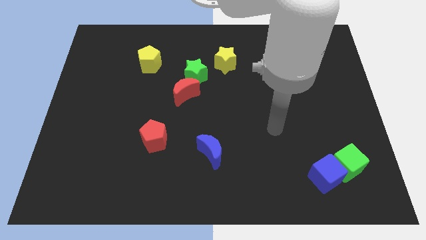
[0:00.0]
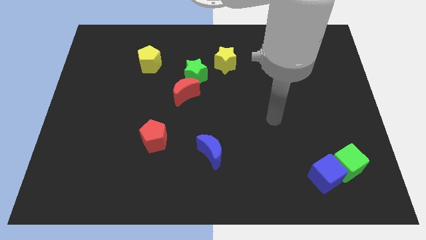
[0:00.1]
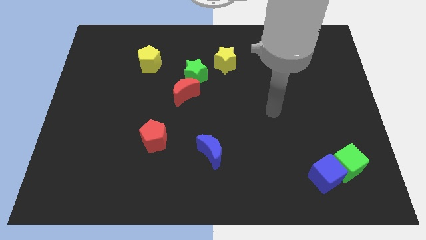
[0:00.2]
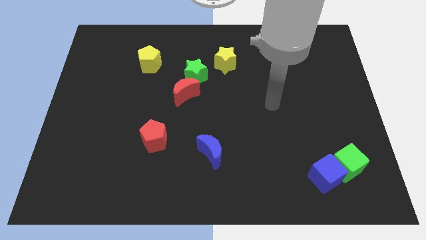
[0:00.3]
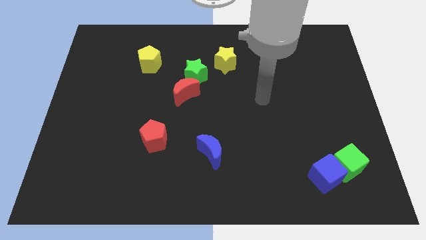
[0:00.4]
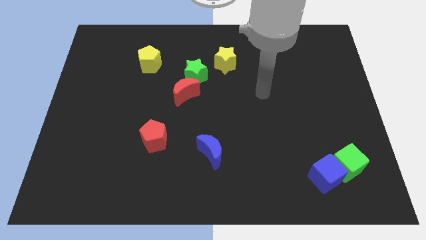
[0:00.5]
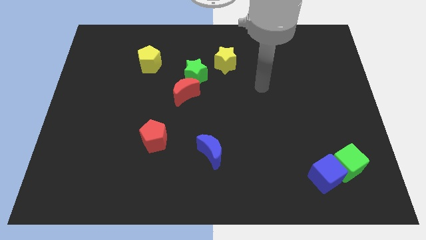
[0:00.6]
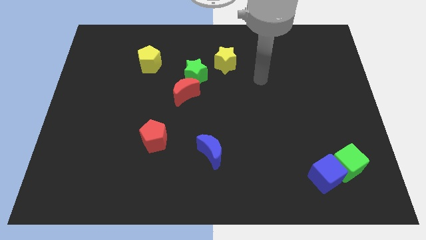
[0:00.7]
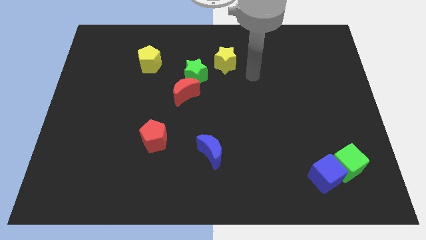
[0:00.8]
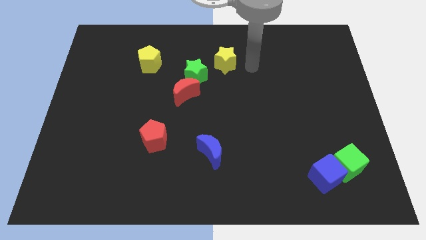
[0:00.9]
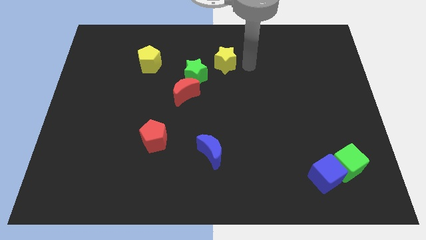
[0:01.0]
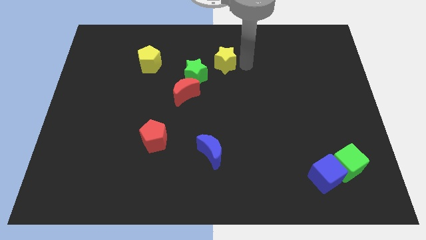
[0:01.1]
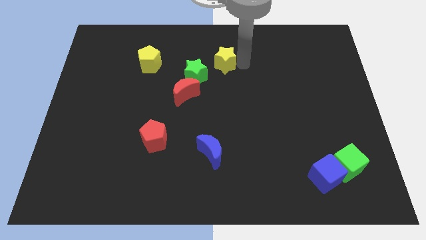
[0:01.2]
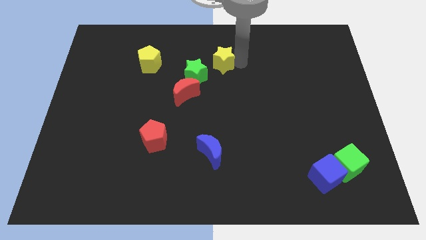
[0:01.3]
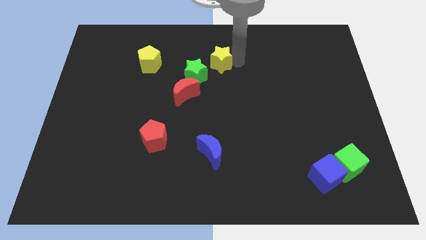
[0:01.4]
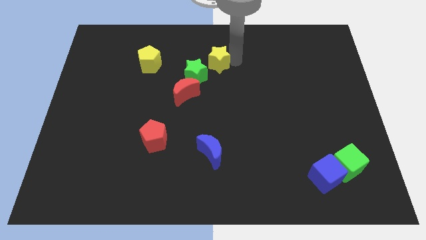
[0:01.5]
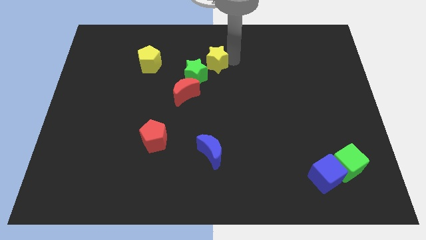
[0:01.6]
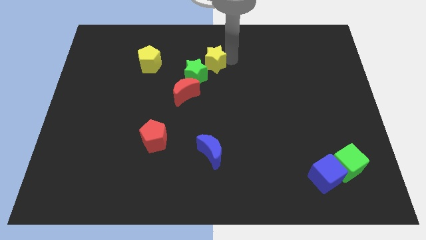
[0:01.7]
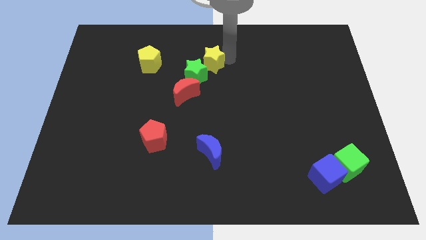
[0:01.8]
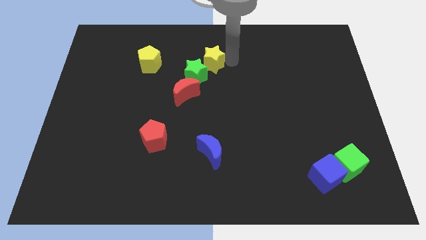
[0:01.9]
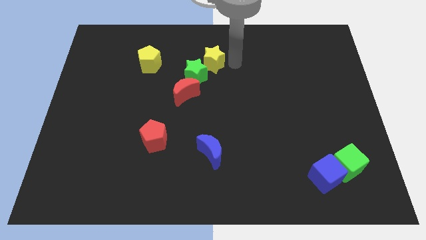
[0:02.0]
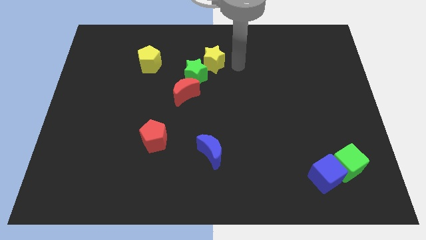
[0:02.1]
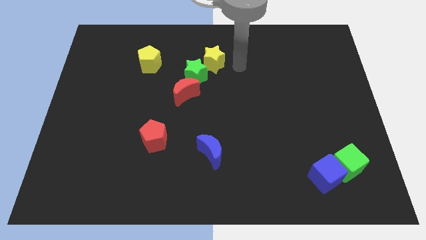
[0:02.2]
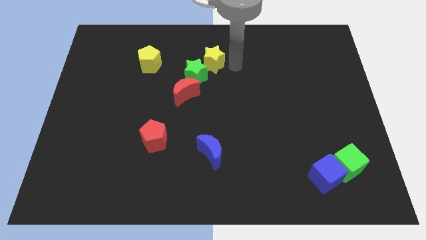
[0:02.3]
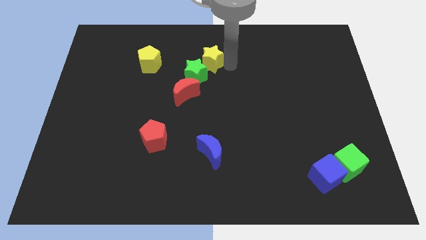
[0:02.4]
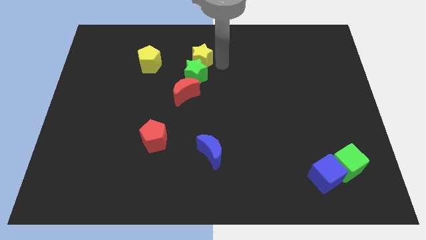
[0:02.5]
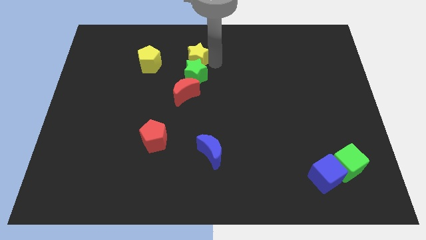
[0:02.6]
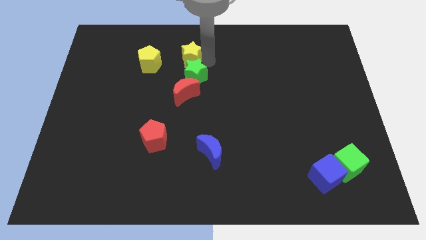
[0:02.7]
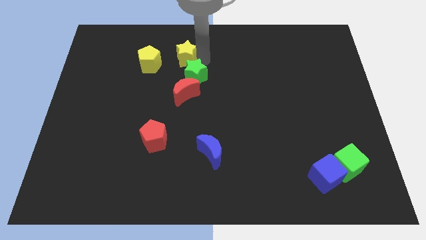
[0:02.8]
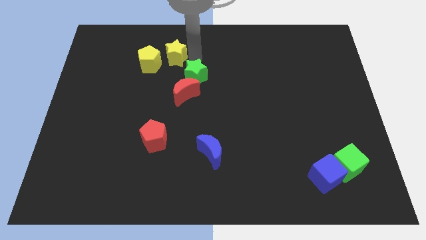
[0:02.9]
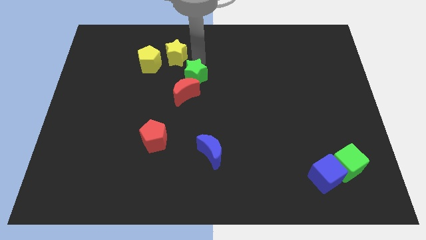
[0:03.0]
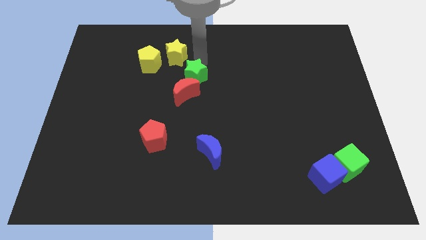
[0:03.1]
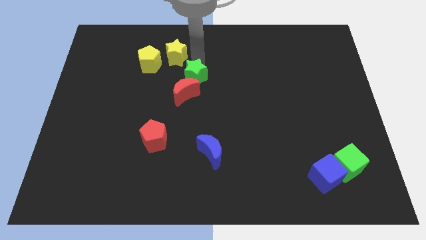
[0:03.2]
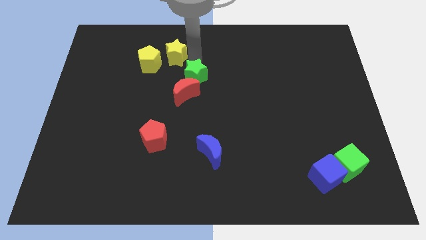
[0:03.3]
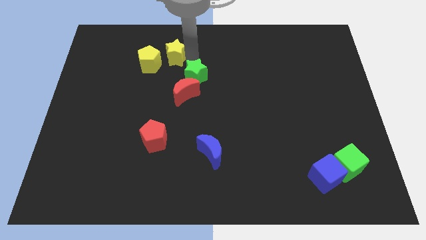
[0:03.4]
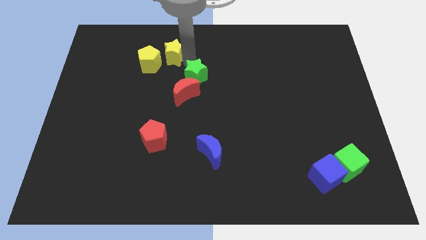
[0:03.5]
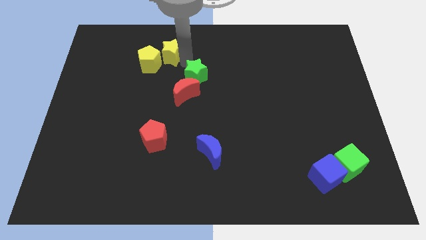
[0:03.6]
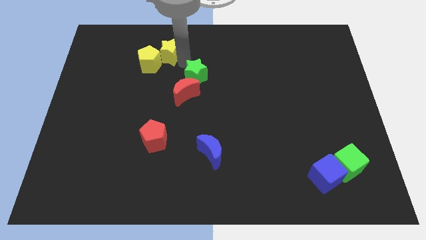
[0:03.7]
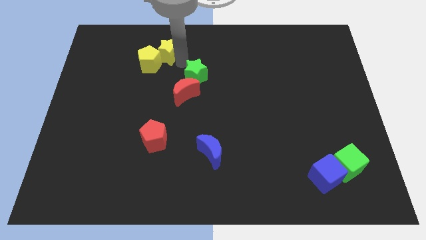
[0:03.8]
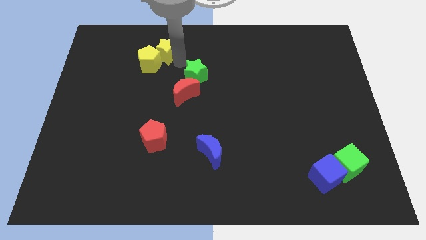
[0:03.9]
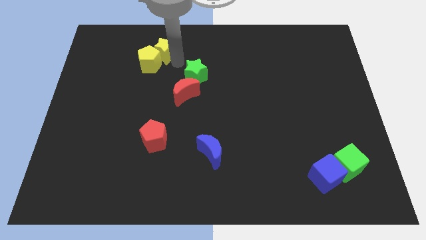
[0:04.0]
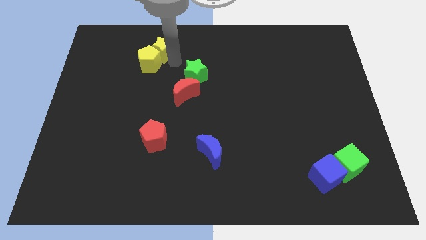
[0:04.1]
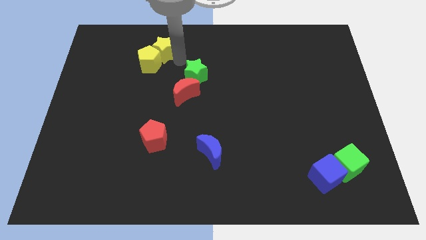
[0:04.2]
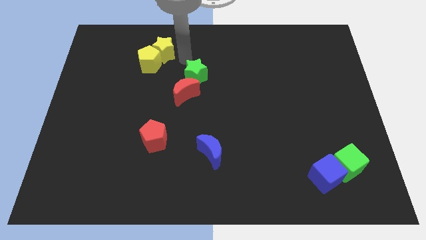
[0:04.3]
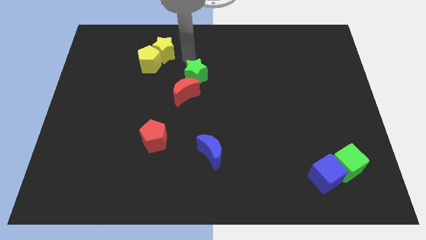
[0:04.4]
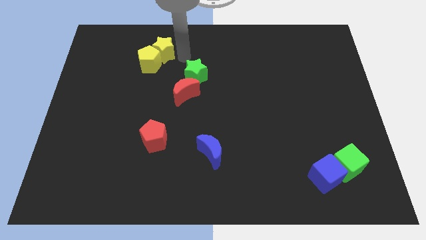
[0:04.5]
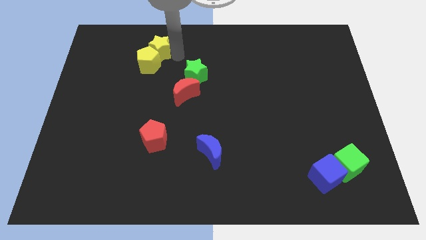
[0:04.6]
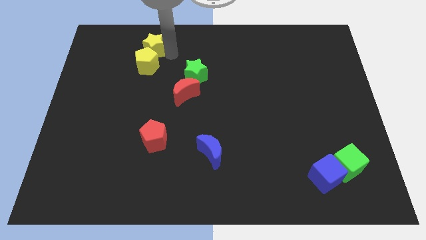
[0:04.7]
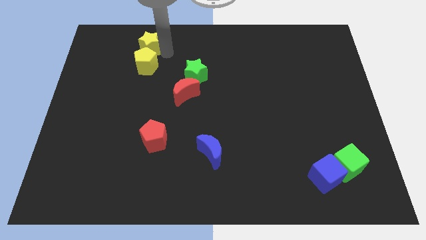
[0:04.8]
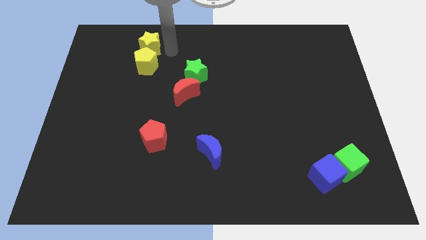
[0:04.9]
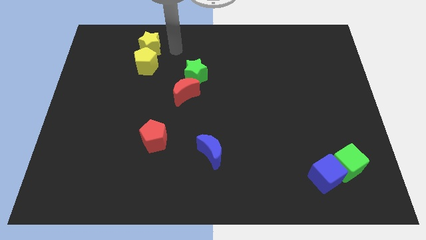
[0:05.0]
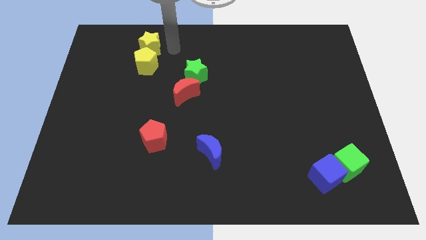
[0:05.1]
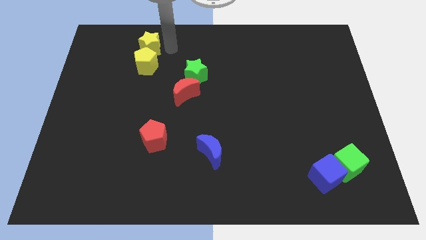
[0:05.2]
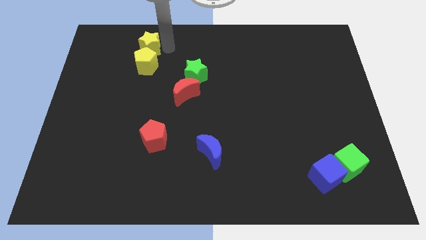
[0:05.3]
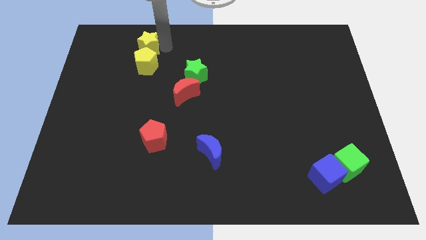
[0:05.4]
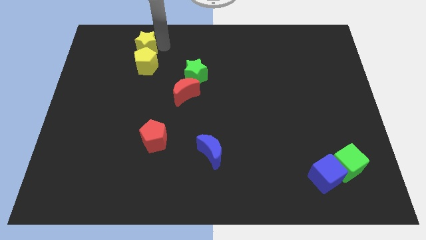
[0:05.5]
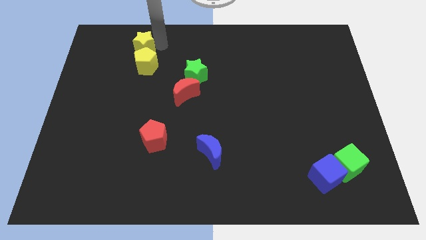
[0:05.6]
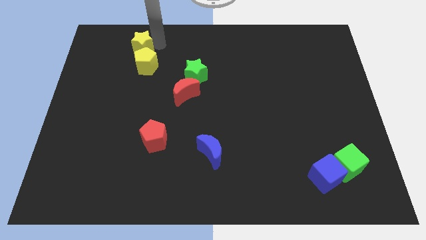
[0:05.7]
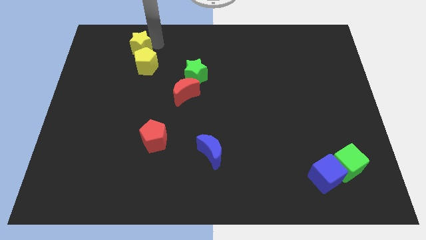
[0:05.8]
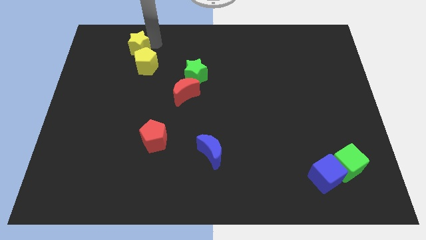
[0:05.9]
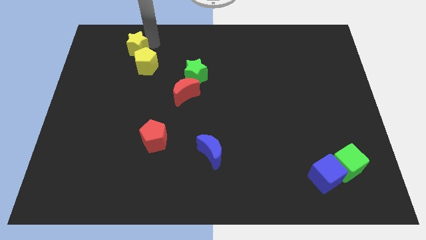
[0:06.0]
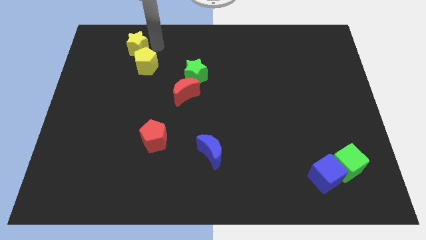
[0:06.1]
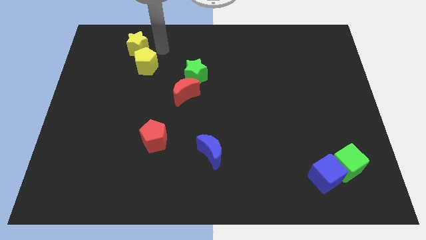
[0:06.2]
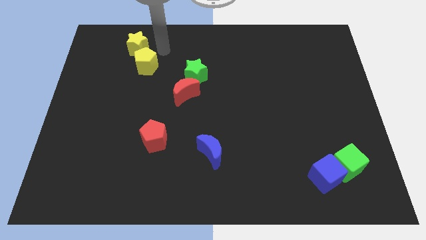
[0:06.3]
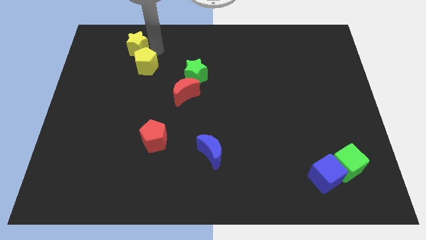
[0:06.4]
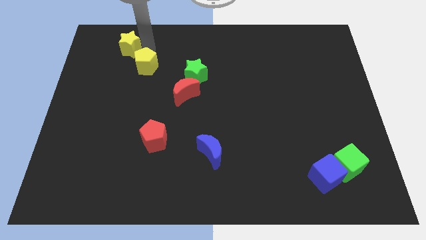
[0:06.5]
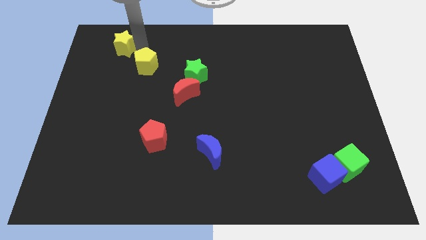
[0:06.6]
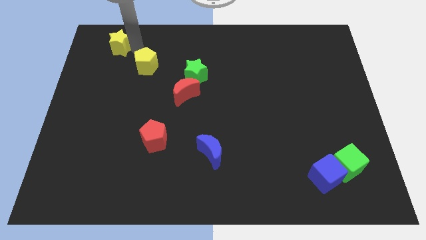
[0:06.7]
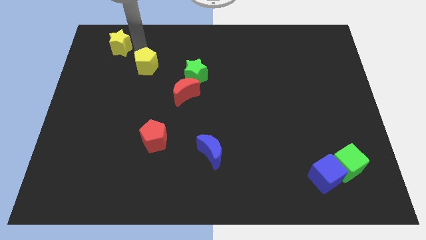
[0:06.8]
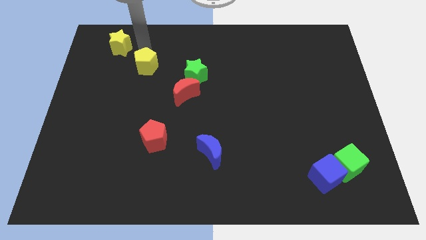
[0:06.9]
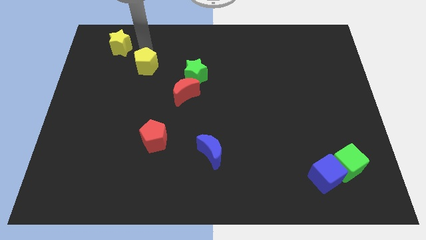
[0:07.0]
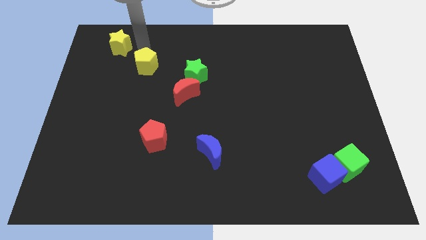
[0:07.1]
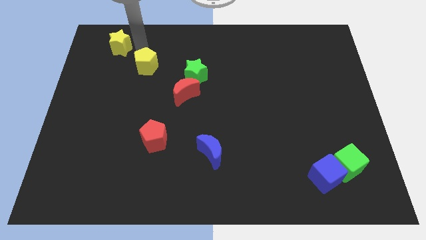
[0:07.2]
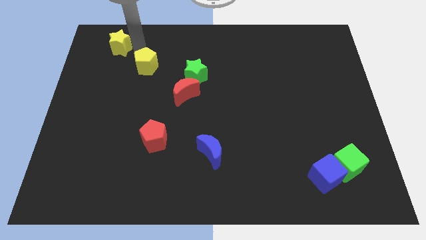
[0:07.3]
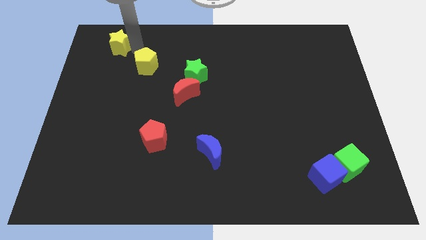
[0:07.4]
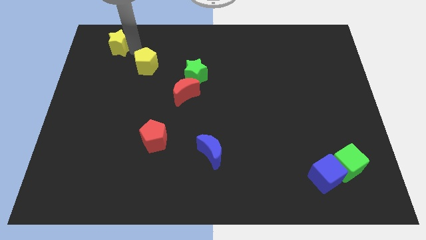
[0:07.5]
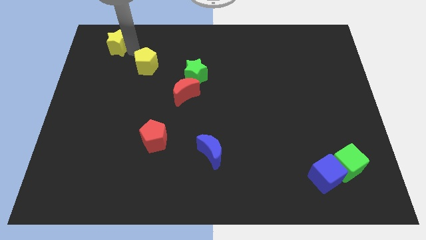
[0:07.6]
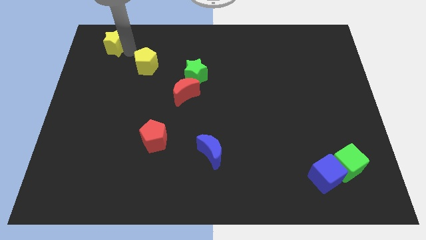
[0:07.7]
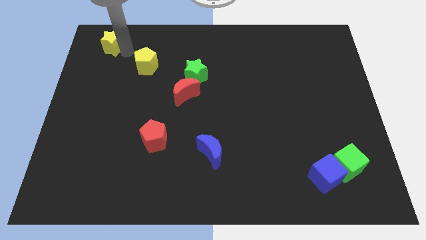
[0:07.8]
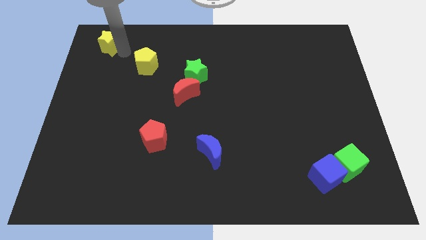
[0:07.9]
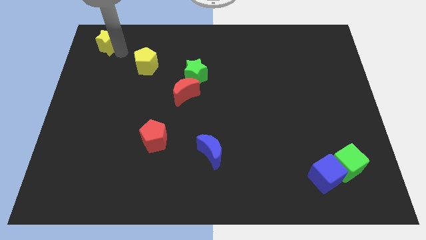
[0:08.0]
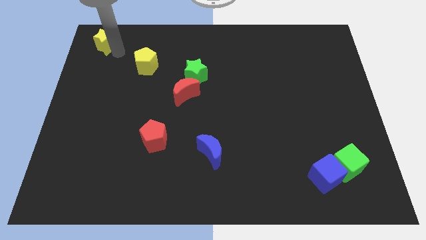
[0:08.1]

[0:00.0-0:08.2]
put the yellow star to the top left corner
